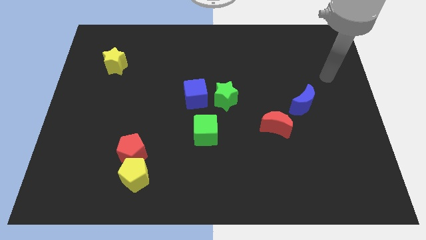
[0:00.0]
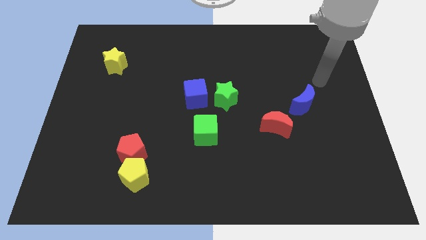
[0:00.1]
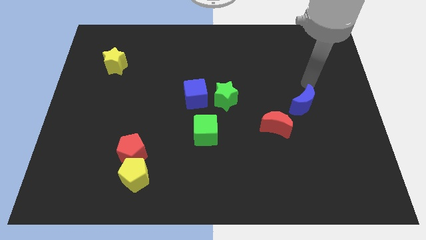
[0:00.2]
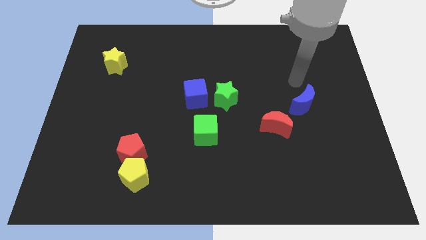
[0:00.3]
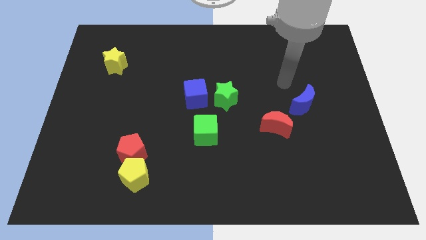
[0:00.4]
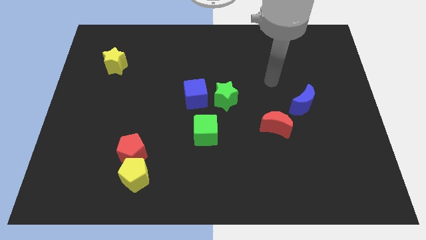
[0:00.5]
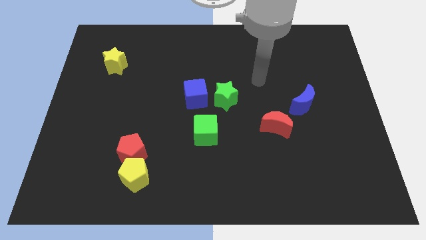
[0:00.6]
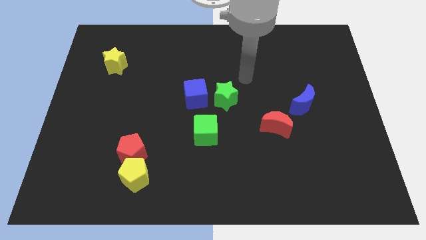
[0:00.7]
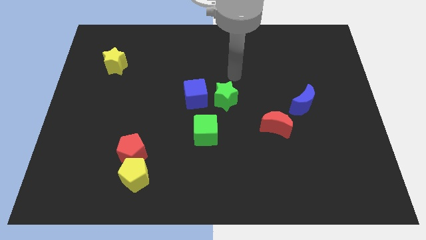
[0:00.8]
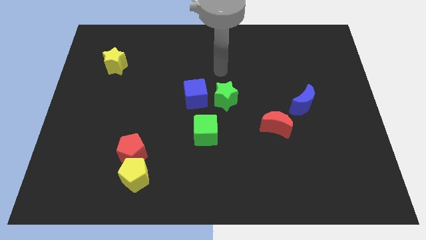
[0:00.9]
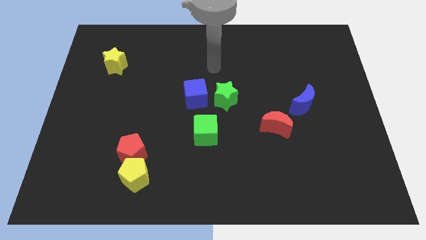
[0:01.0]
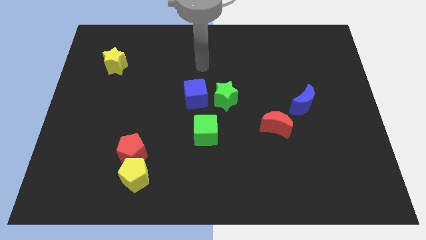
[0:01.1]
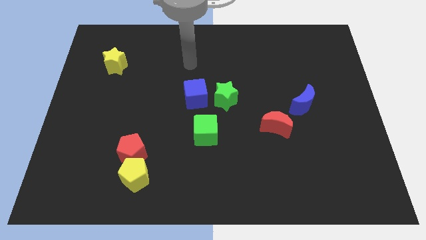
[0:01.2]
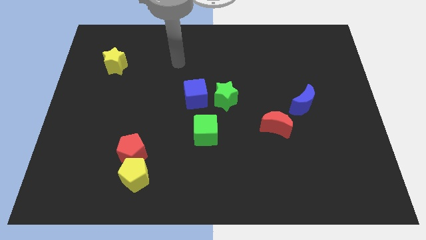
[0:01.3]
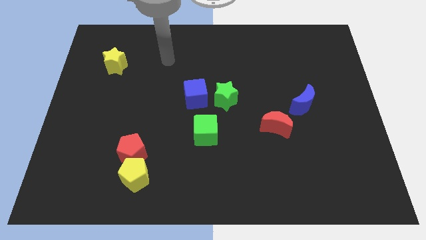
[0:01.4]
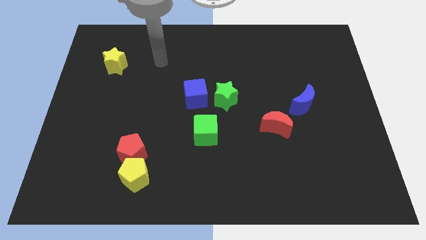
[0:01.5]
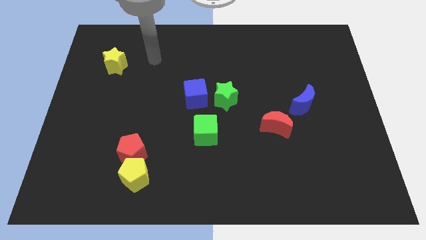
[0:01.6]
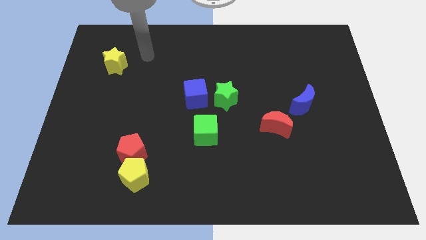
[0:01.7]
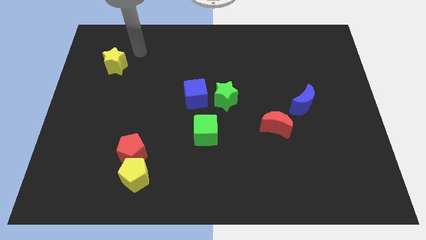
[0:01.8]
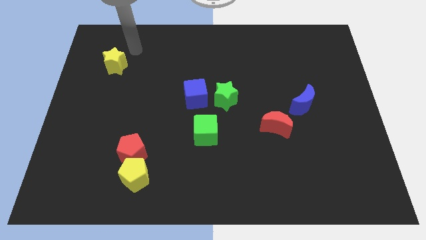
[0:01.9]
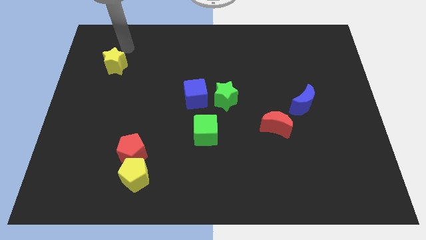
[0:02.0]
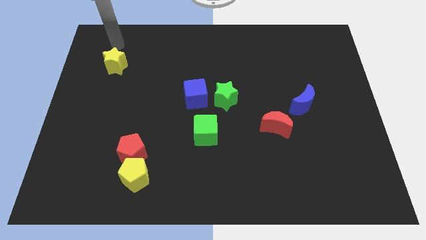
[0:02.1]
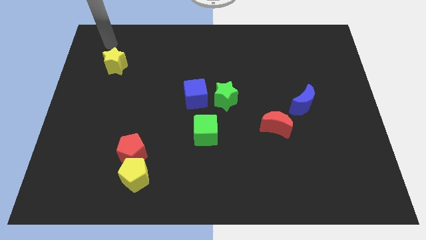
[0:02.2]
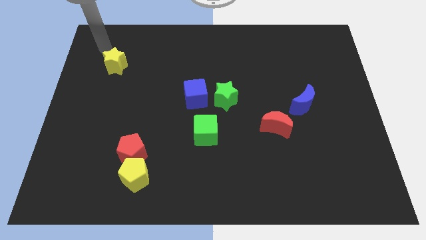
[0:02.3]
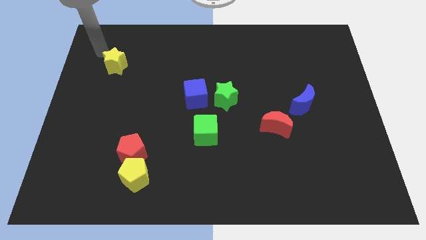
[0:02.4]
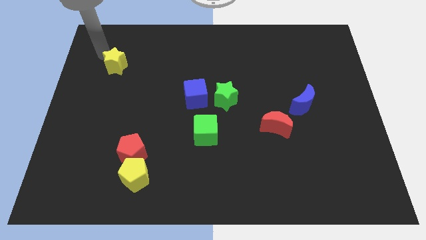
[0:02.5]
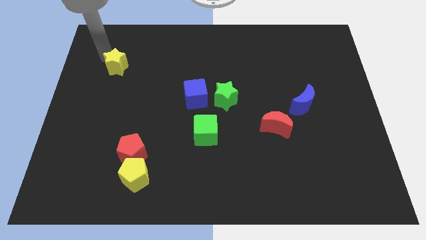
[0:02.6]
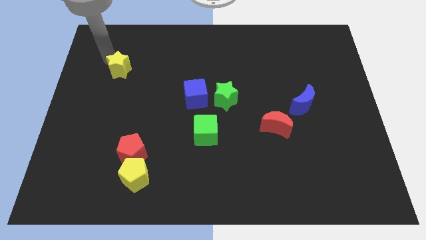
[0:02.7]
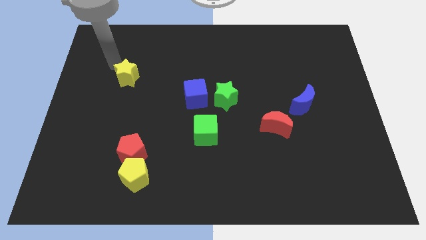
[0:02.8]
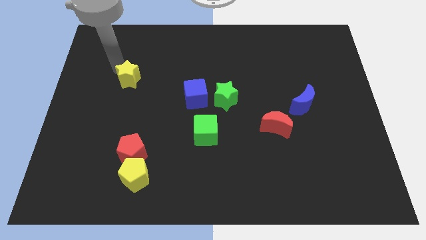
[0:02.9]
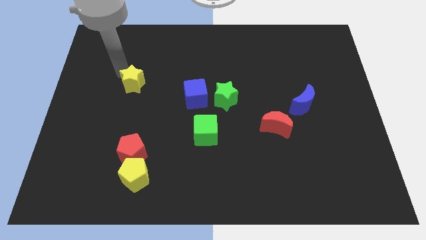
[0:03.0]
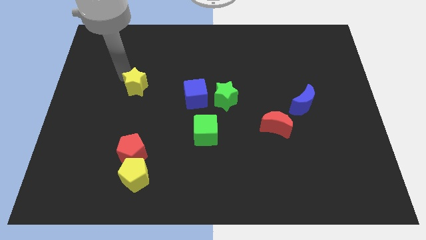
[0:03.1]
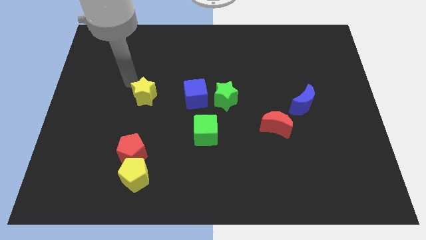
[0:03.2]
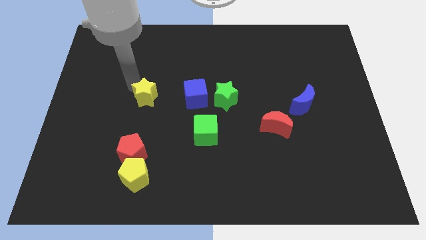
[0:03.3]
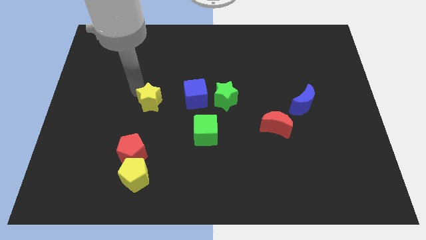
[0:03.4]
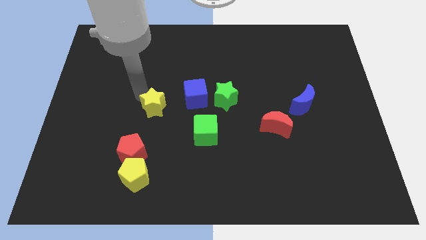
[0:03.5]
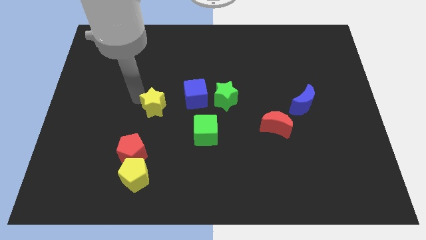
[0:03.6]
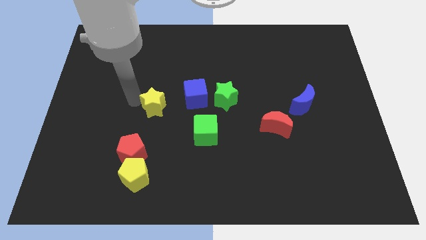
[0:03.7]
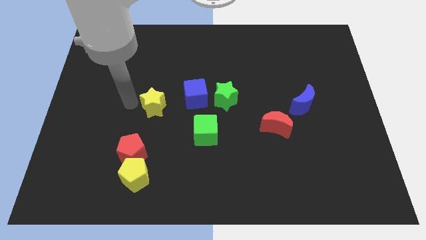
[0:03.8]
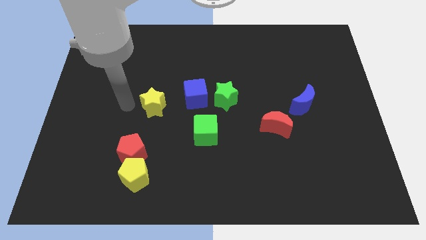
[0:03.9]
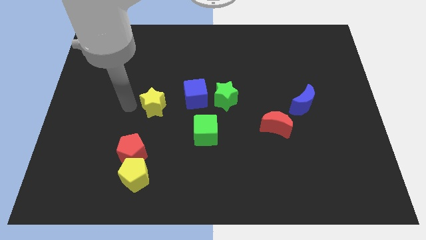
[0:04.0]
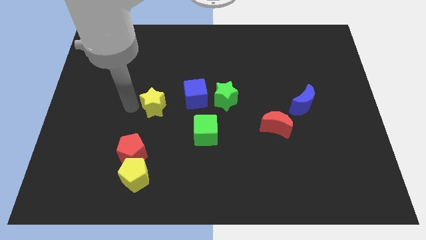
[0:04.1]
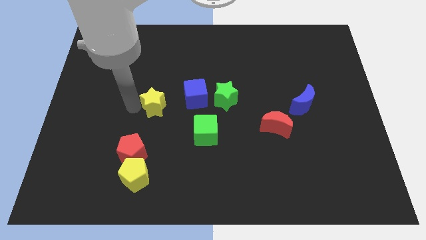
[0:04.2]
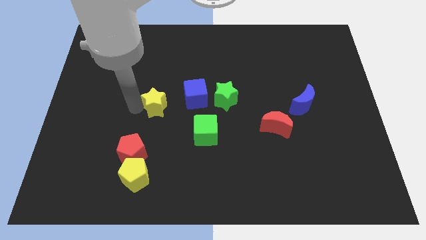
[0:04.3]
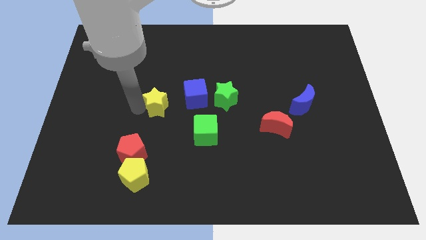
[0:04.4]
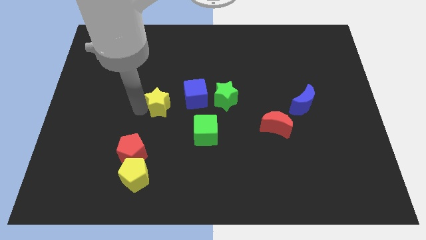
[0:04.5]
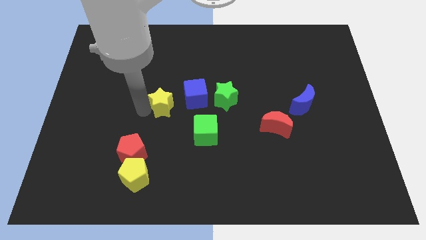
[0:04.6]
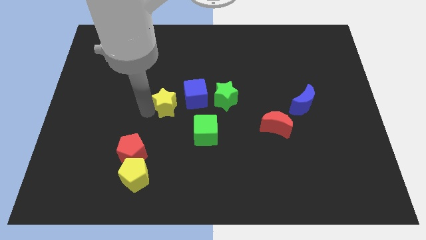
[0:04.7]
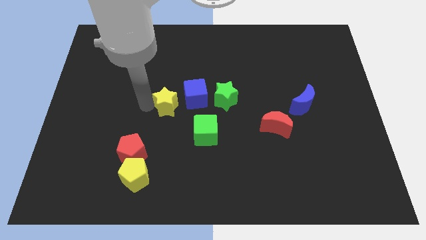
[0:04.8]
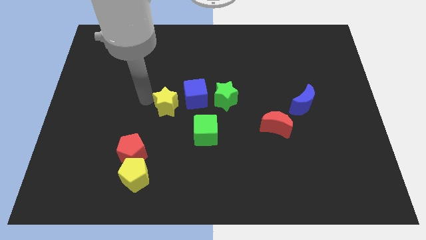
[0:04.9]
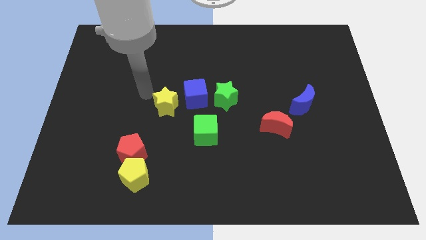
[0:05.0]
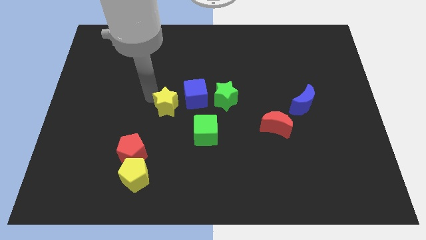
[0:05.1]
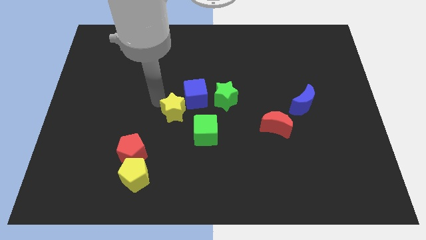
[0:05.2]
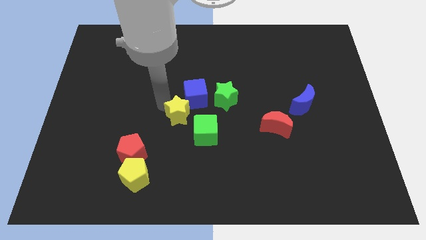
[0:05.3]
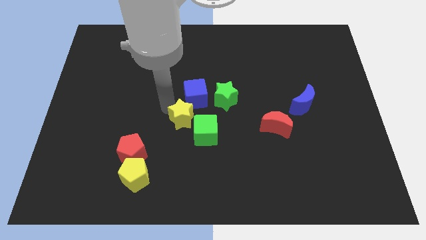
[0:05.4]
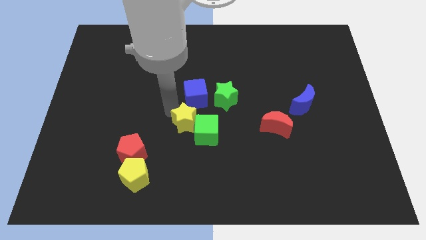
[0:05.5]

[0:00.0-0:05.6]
push the yellow star towards the green cube

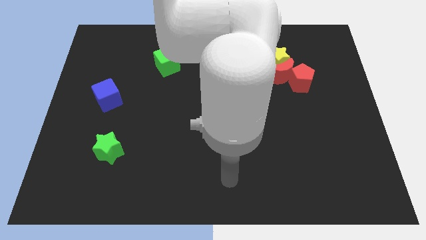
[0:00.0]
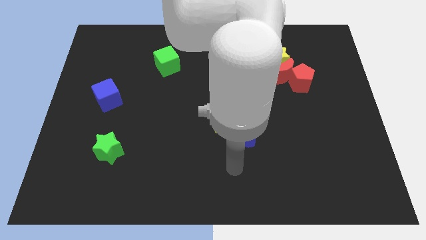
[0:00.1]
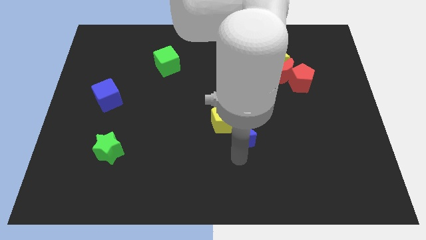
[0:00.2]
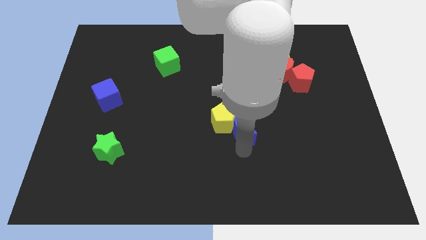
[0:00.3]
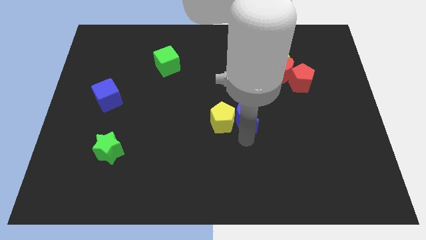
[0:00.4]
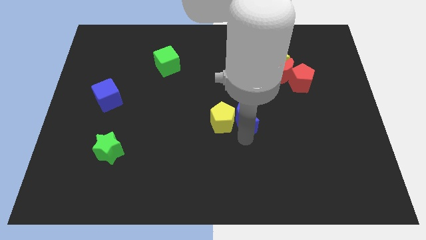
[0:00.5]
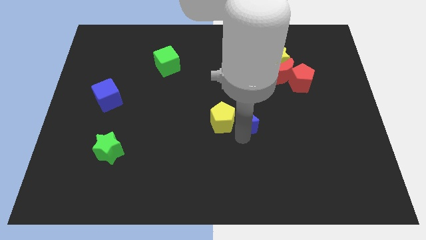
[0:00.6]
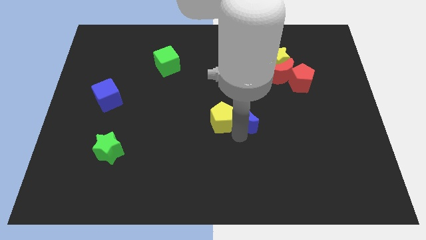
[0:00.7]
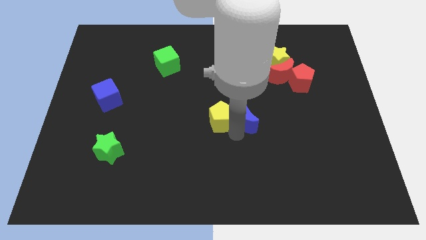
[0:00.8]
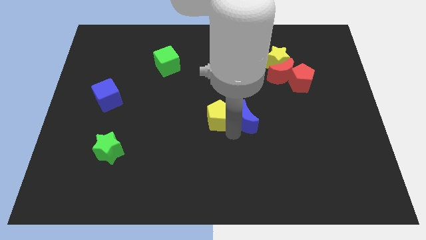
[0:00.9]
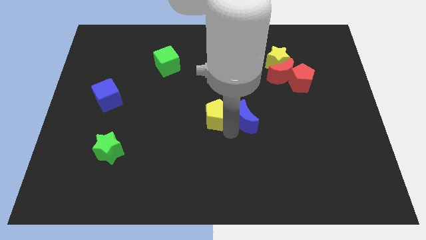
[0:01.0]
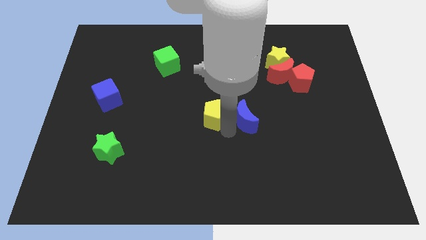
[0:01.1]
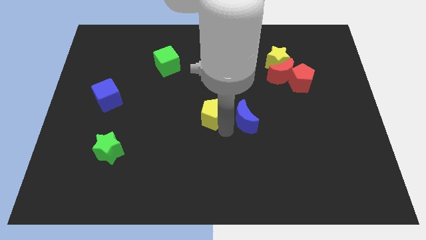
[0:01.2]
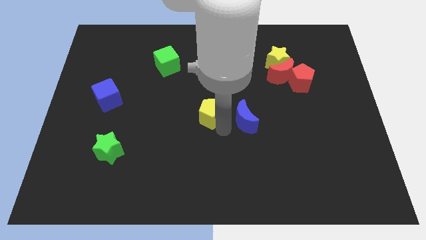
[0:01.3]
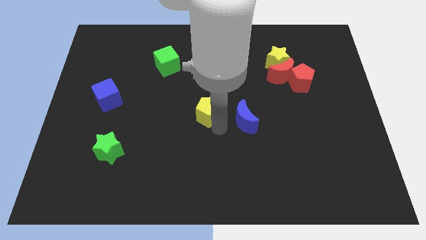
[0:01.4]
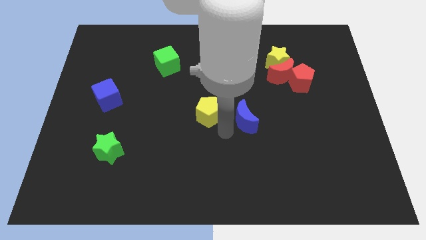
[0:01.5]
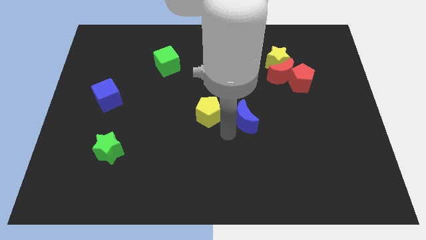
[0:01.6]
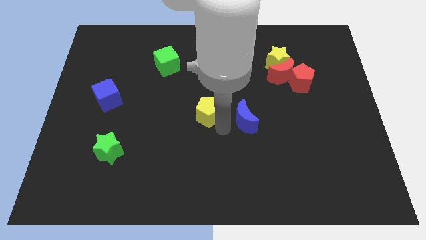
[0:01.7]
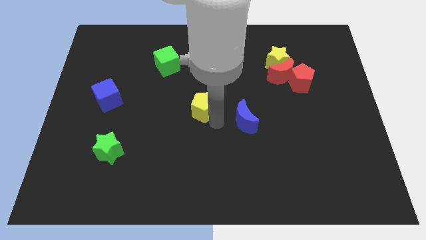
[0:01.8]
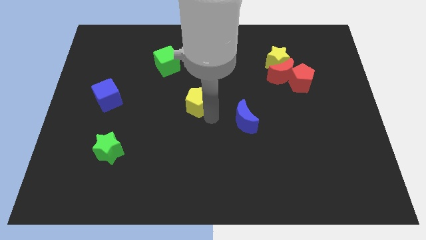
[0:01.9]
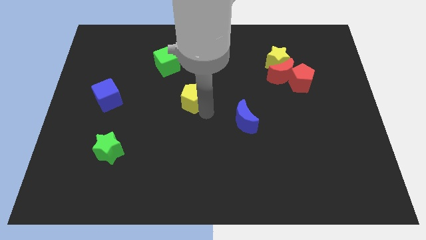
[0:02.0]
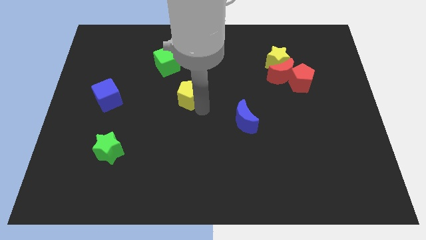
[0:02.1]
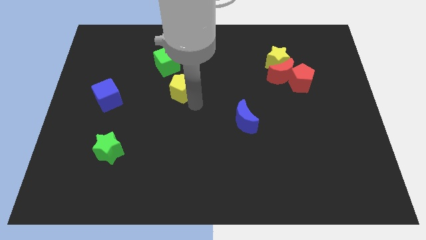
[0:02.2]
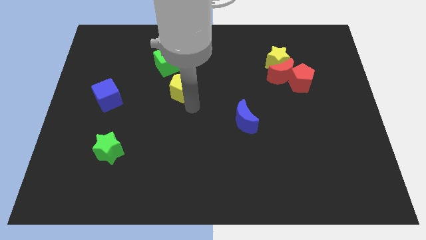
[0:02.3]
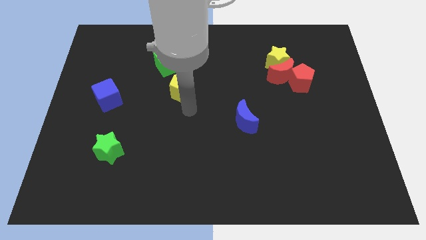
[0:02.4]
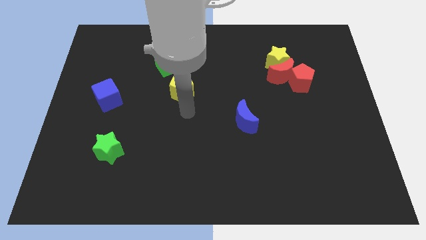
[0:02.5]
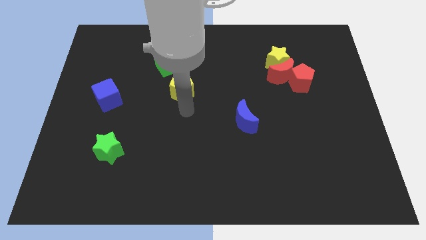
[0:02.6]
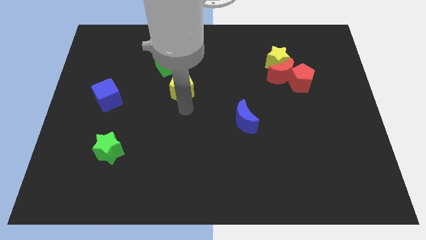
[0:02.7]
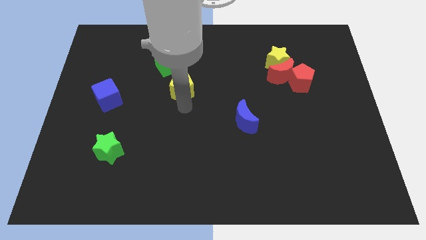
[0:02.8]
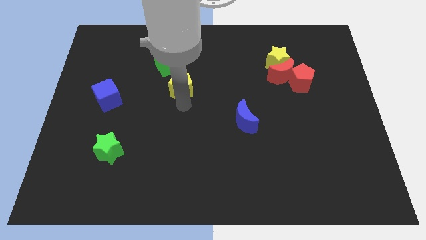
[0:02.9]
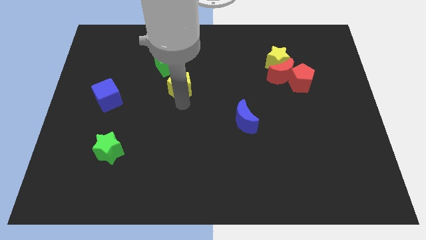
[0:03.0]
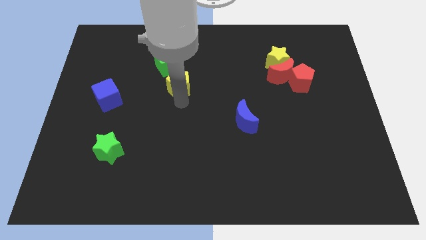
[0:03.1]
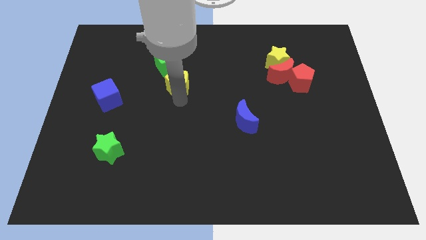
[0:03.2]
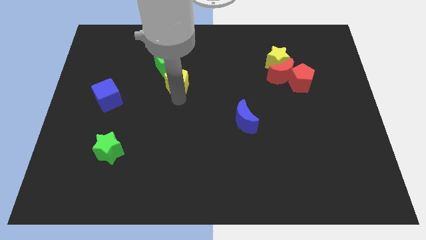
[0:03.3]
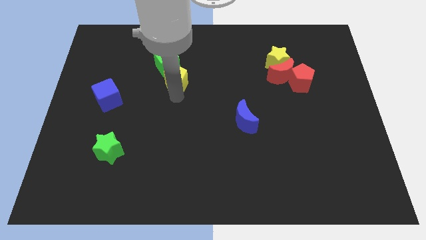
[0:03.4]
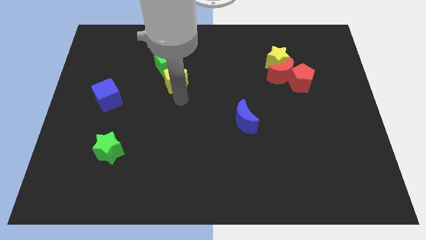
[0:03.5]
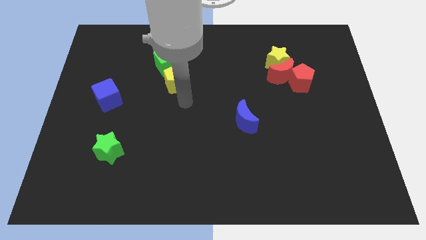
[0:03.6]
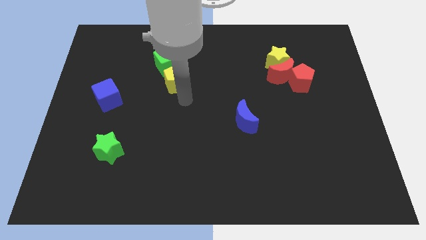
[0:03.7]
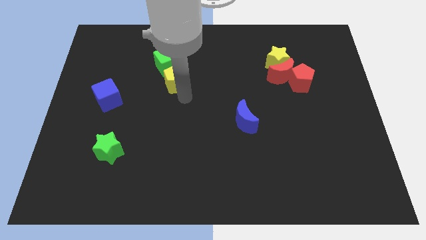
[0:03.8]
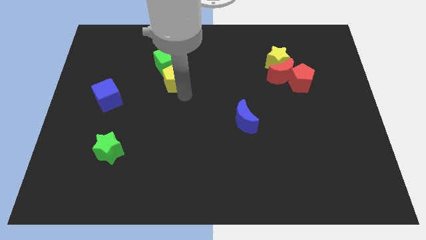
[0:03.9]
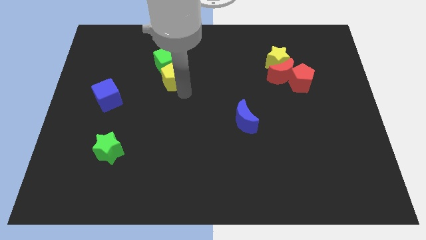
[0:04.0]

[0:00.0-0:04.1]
push the yellow pentagon close to the green cube
